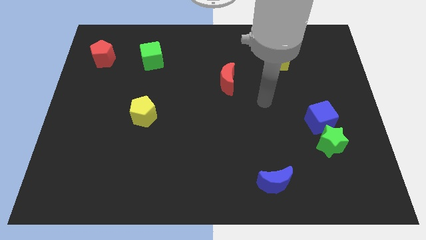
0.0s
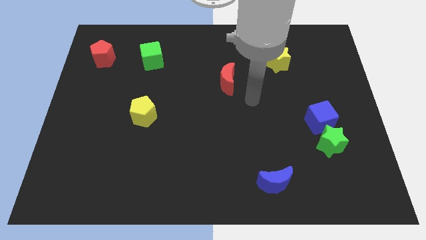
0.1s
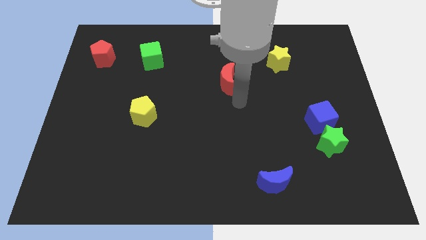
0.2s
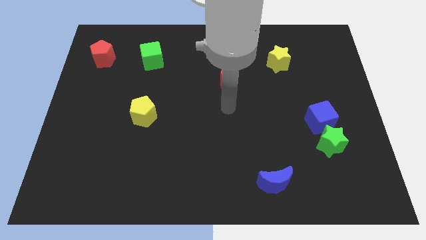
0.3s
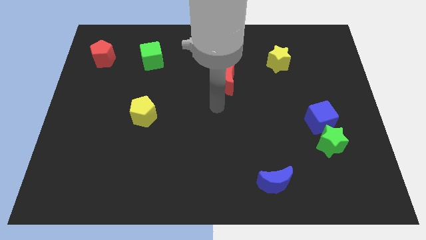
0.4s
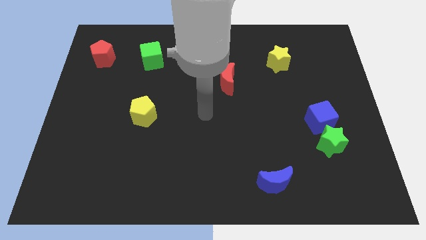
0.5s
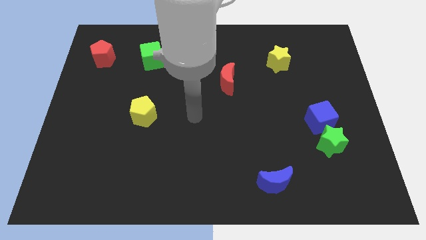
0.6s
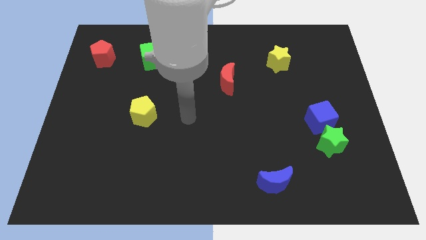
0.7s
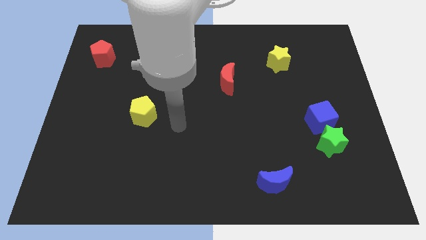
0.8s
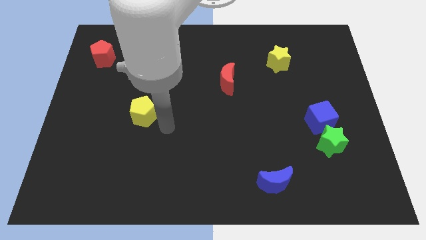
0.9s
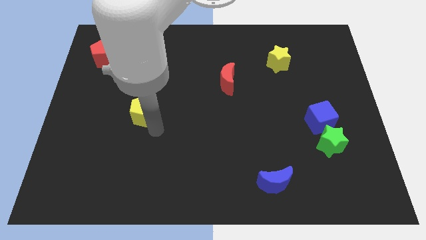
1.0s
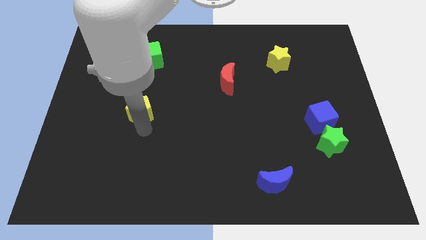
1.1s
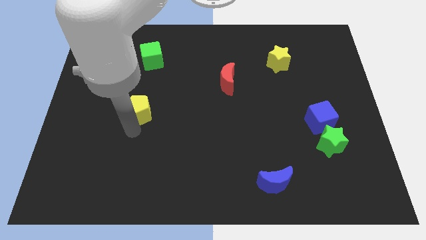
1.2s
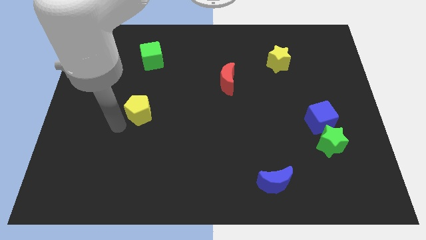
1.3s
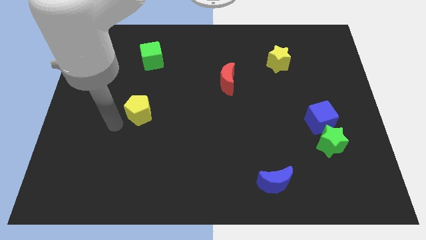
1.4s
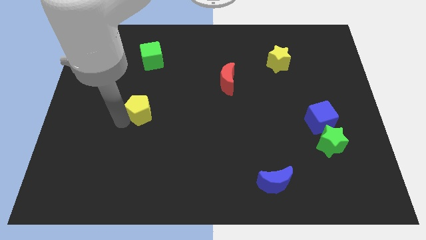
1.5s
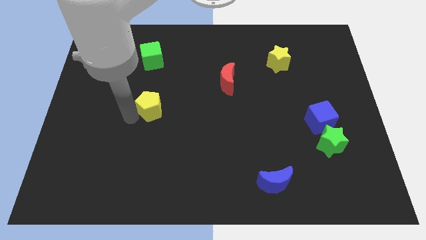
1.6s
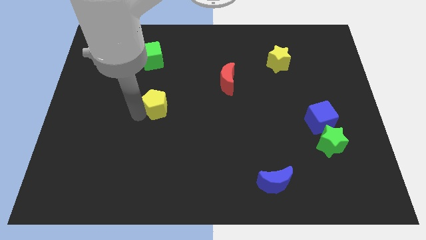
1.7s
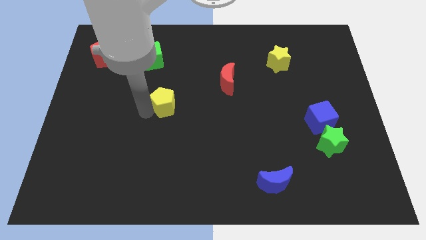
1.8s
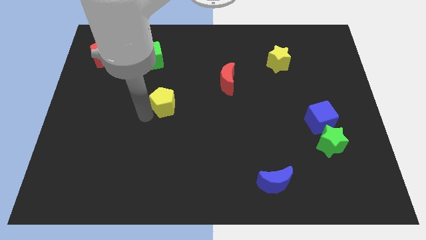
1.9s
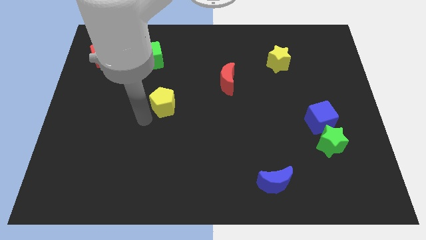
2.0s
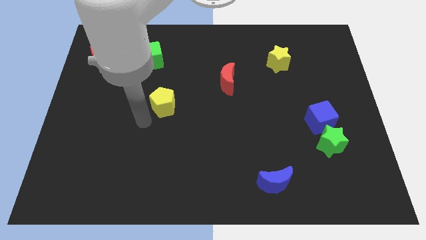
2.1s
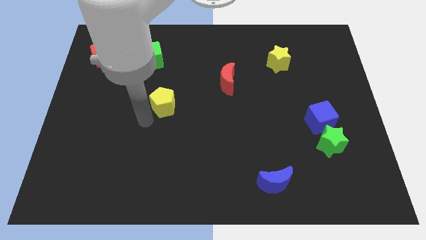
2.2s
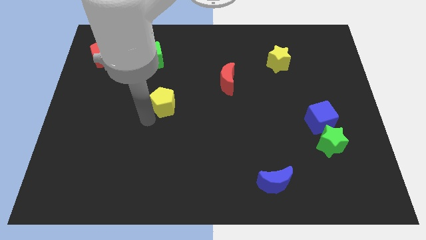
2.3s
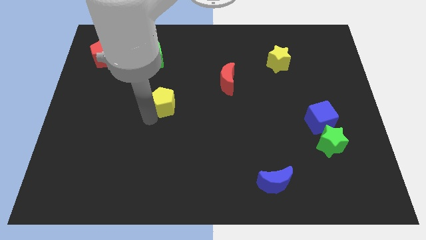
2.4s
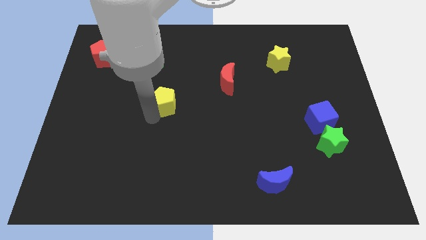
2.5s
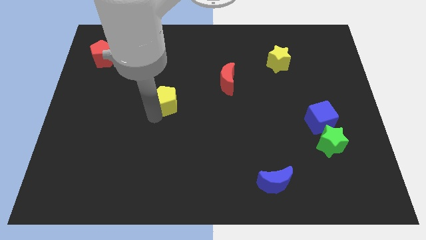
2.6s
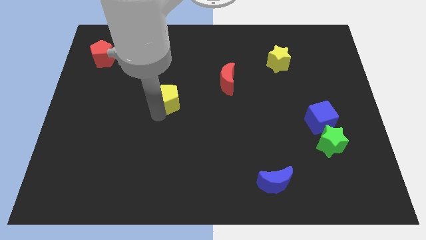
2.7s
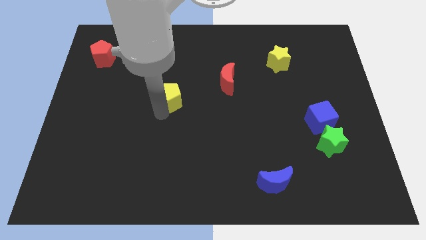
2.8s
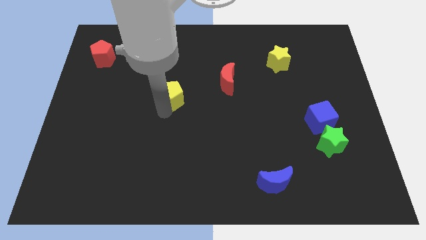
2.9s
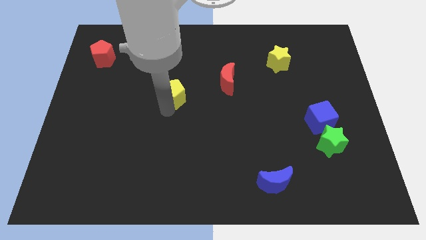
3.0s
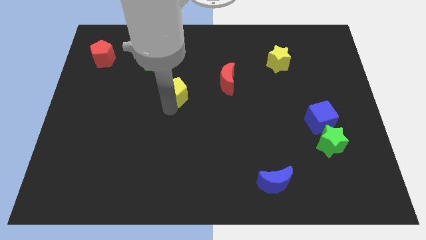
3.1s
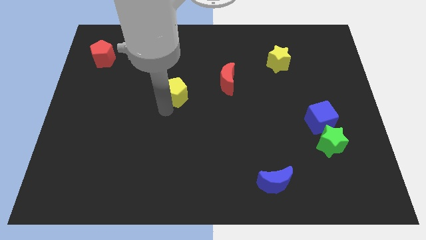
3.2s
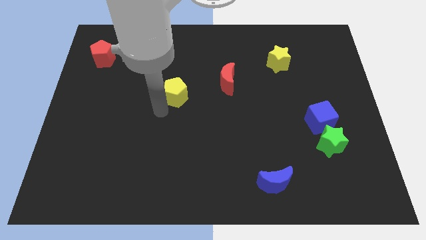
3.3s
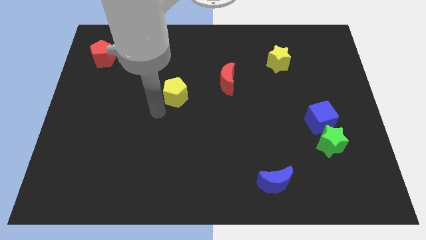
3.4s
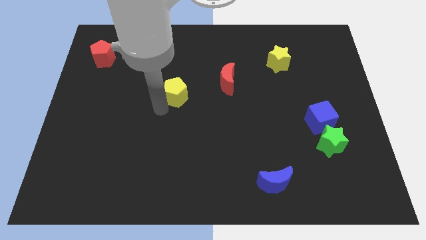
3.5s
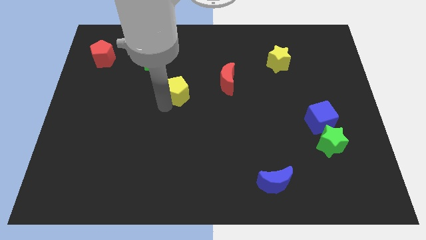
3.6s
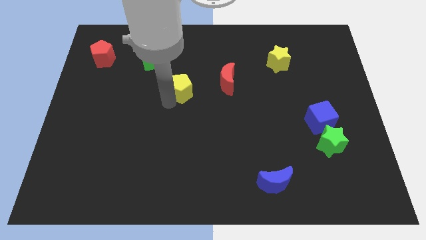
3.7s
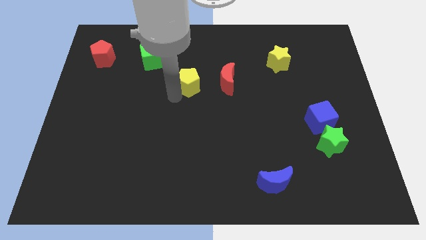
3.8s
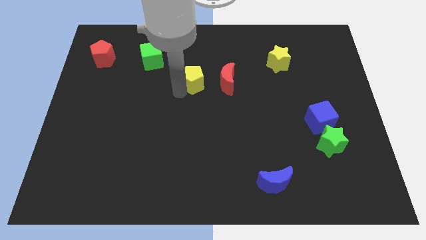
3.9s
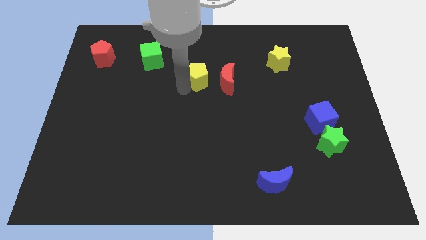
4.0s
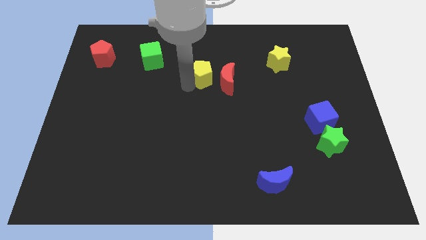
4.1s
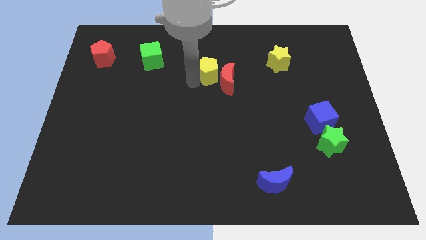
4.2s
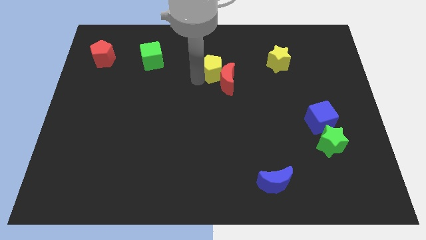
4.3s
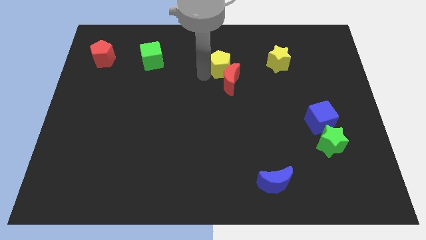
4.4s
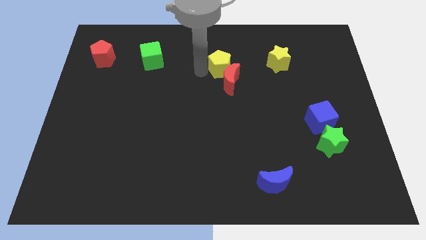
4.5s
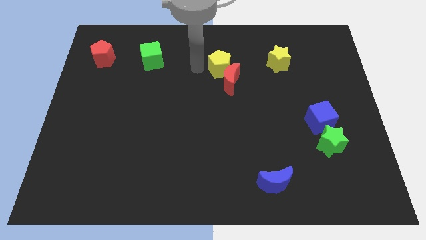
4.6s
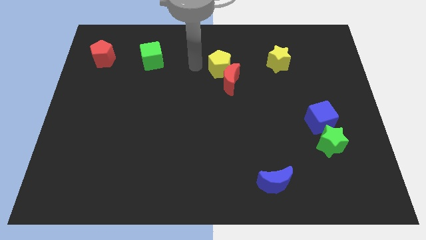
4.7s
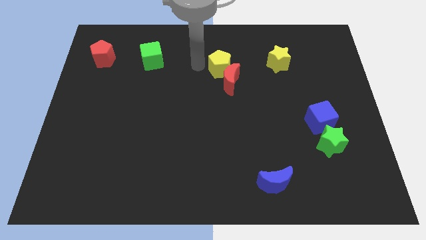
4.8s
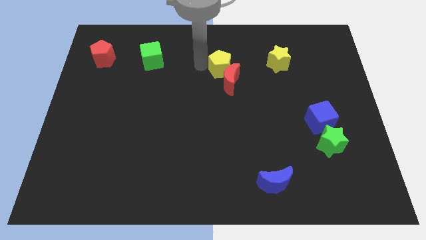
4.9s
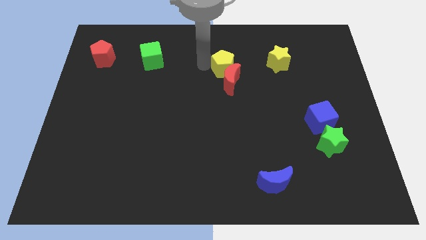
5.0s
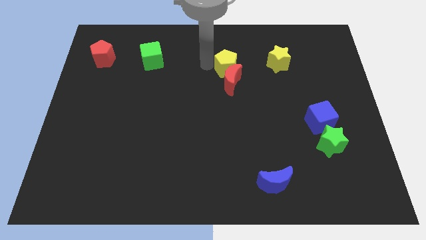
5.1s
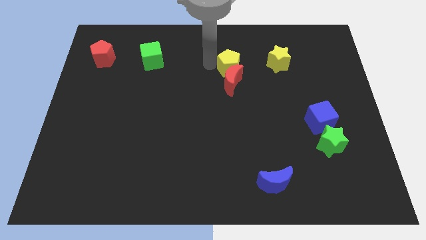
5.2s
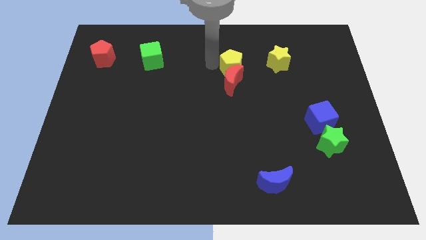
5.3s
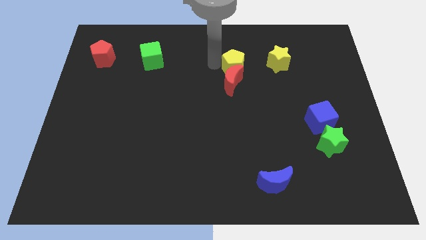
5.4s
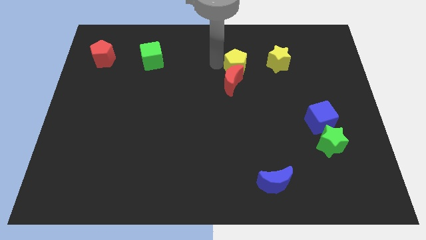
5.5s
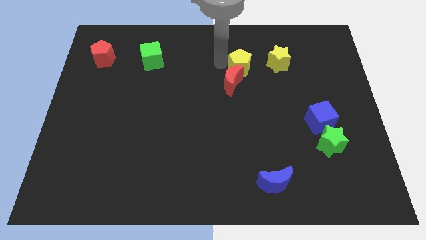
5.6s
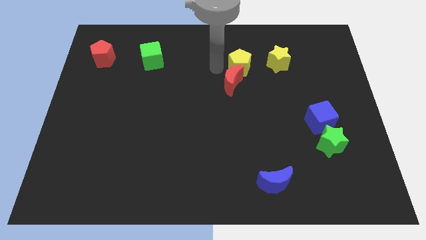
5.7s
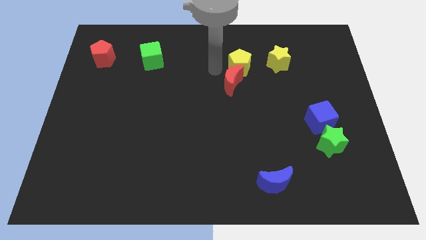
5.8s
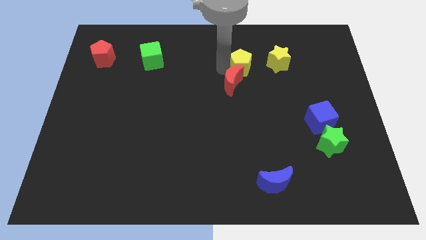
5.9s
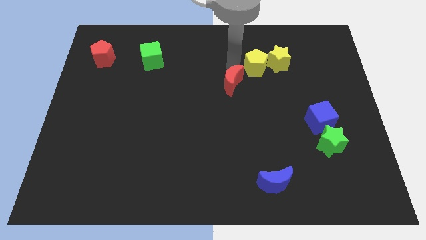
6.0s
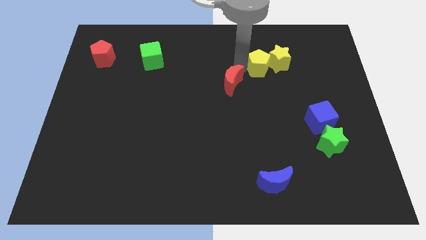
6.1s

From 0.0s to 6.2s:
move the yellow pentagon to the yellow star
